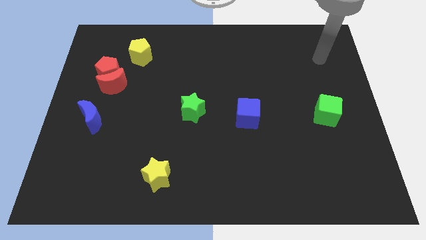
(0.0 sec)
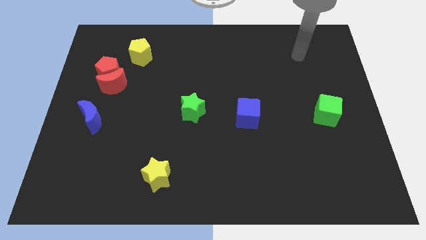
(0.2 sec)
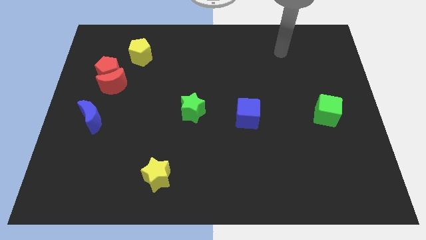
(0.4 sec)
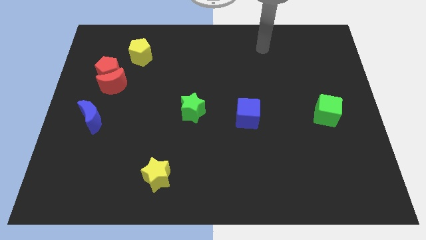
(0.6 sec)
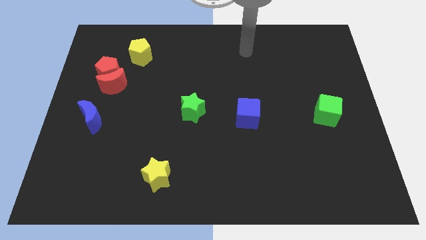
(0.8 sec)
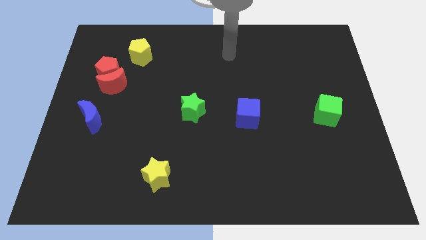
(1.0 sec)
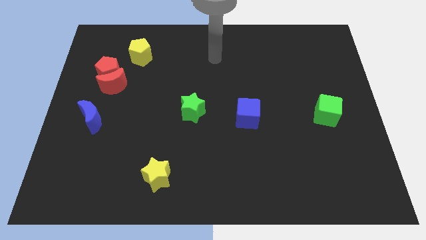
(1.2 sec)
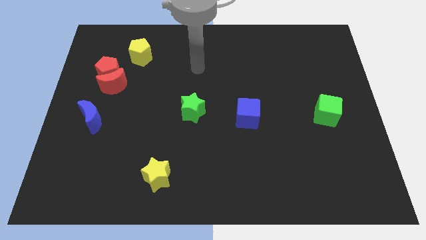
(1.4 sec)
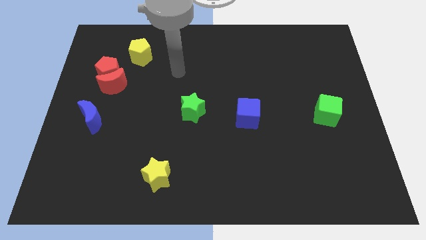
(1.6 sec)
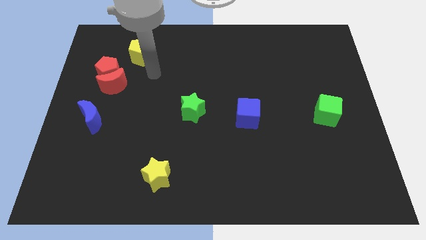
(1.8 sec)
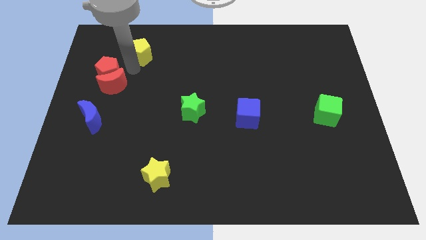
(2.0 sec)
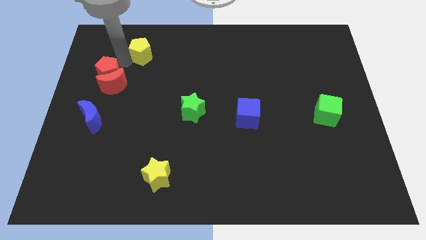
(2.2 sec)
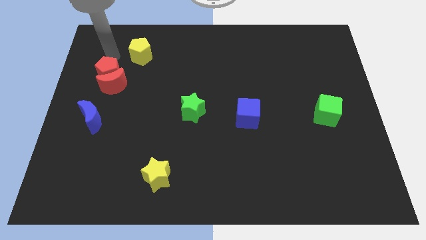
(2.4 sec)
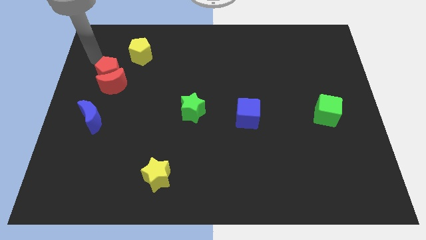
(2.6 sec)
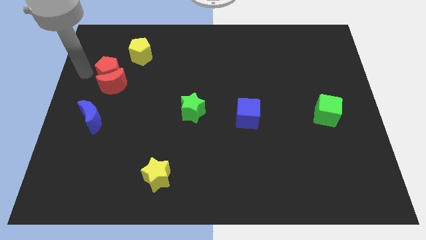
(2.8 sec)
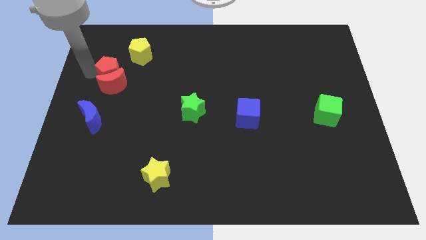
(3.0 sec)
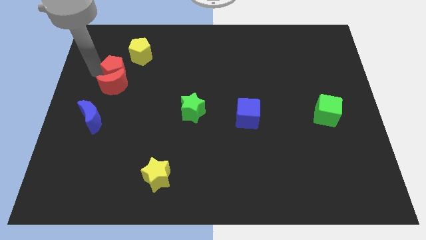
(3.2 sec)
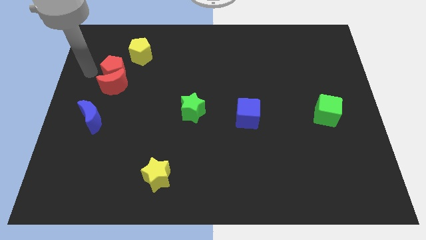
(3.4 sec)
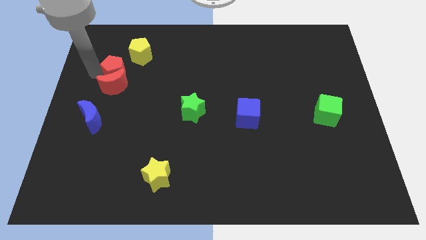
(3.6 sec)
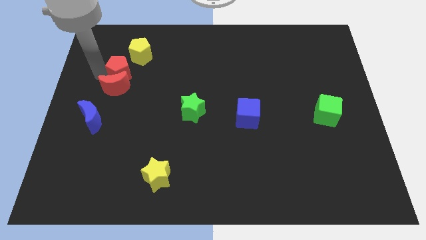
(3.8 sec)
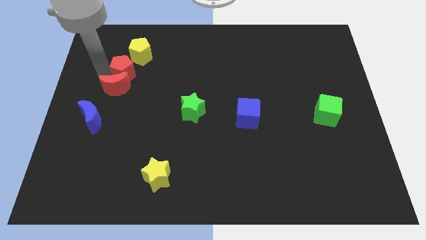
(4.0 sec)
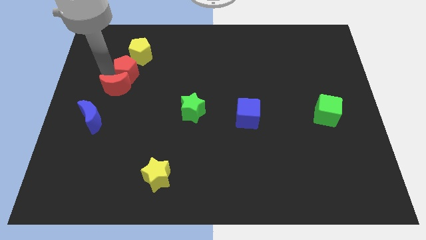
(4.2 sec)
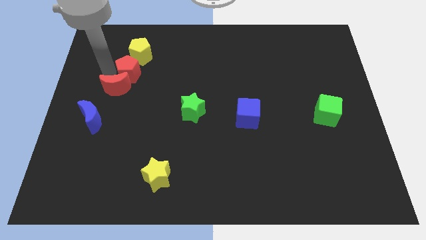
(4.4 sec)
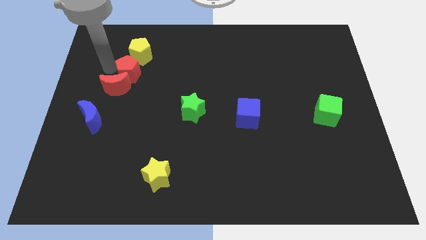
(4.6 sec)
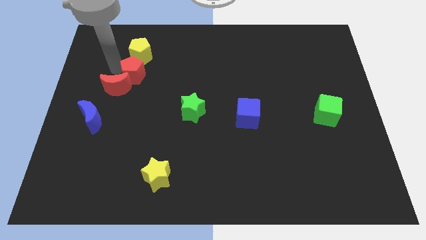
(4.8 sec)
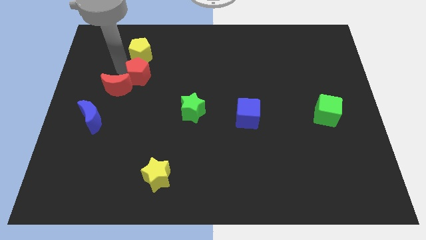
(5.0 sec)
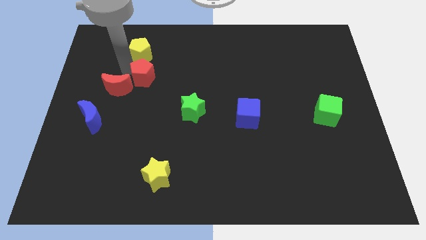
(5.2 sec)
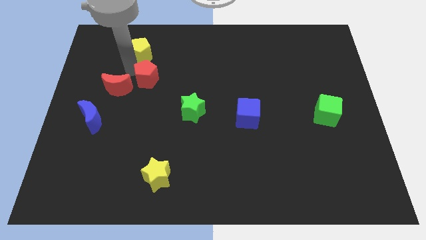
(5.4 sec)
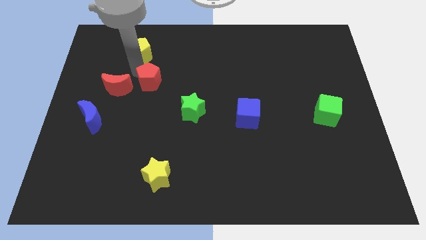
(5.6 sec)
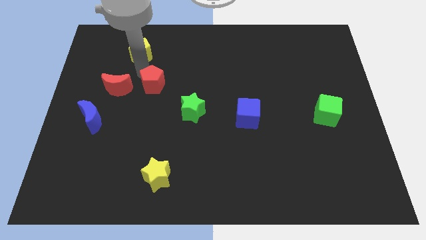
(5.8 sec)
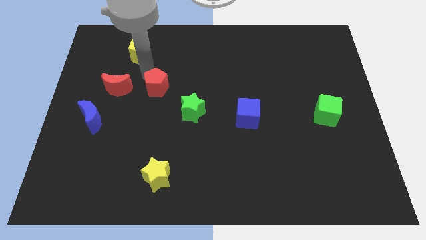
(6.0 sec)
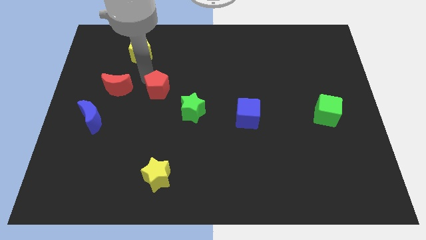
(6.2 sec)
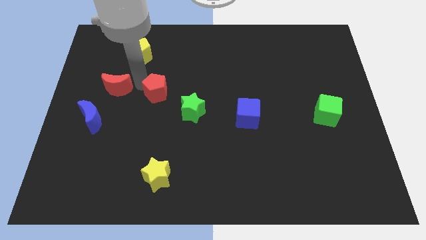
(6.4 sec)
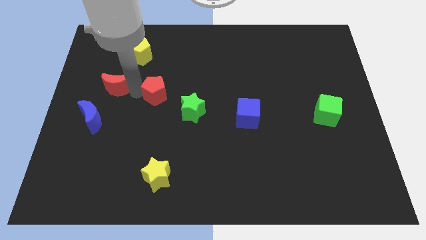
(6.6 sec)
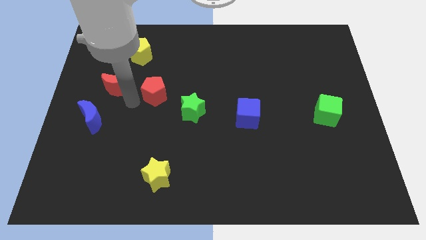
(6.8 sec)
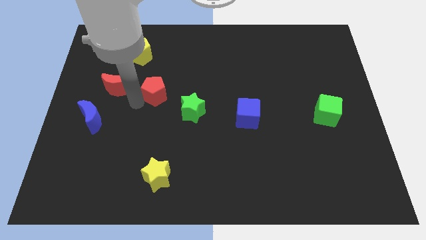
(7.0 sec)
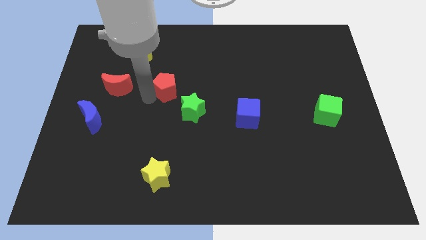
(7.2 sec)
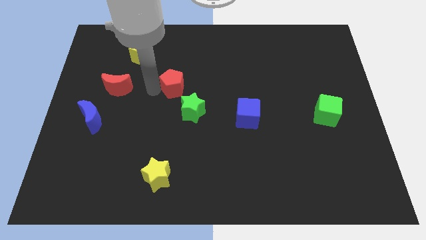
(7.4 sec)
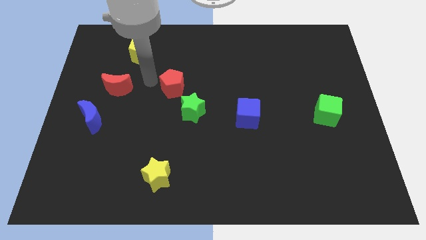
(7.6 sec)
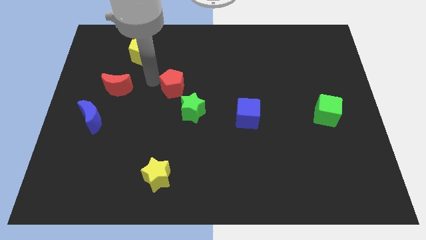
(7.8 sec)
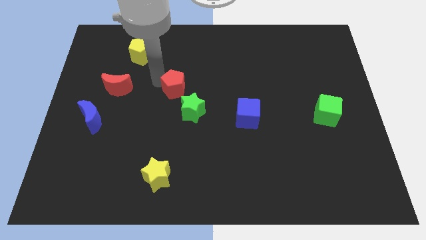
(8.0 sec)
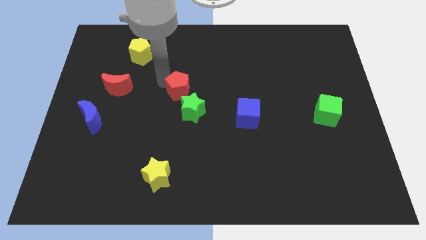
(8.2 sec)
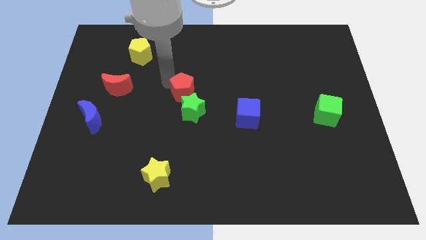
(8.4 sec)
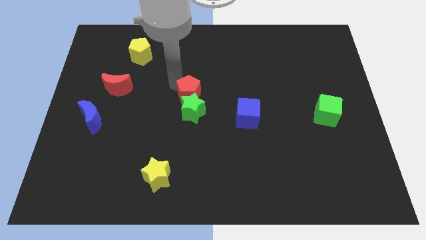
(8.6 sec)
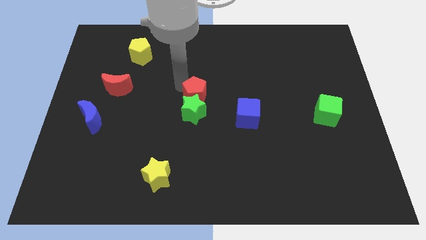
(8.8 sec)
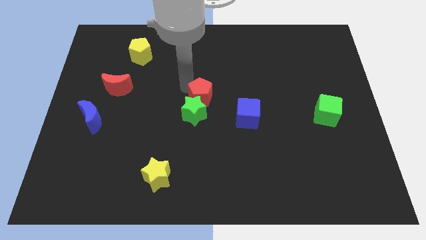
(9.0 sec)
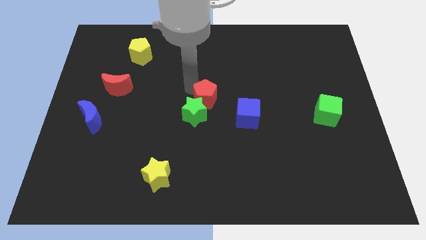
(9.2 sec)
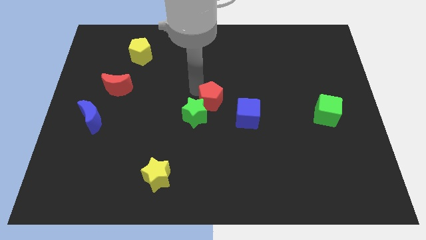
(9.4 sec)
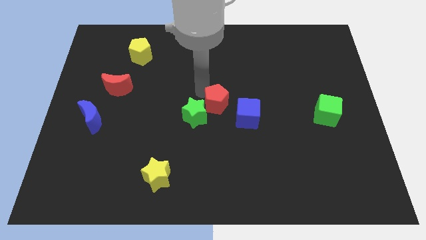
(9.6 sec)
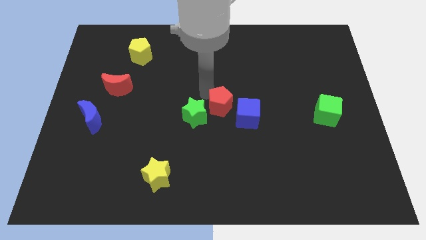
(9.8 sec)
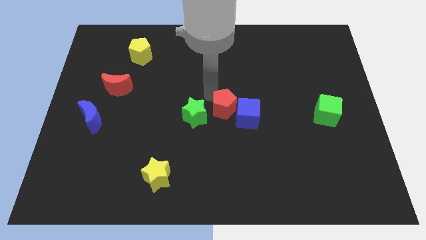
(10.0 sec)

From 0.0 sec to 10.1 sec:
put the red pentagon next to the blue cube

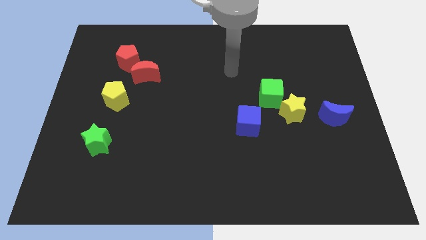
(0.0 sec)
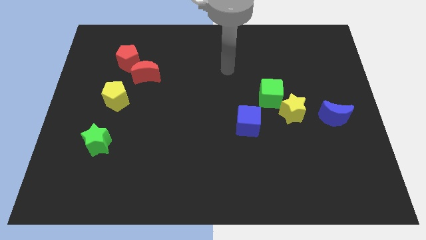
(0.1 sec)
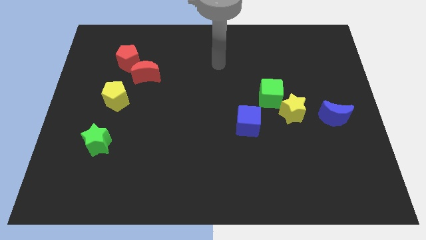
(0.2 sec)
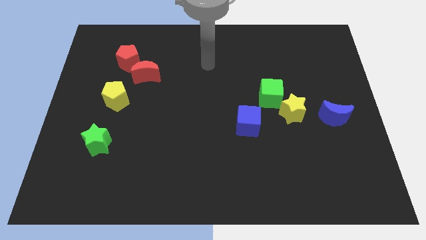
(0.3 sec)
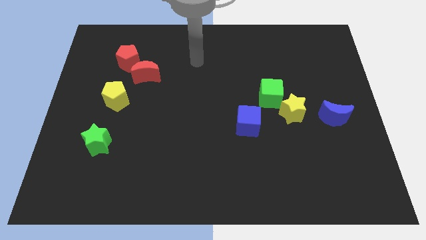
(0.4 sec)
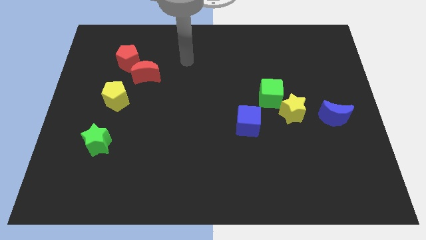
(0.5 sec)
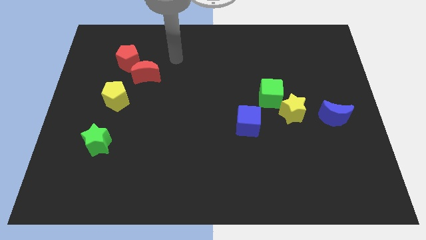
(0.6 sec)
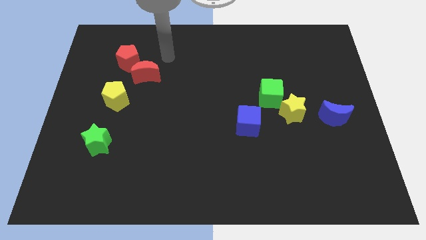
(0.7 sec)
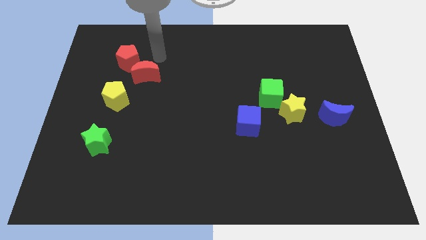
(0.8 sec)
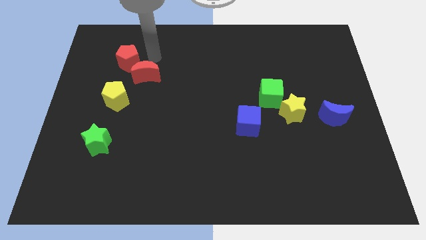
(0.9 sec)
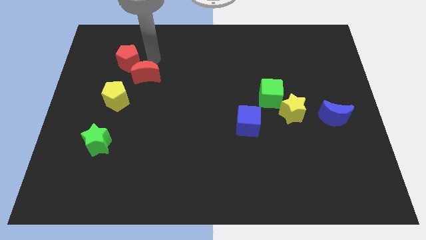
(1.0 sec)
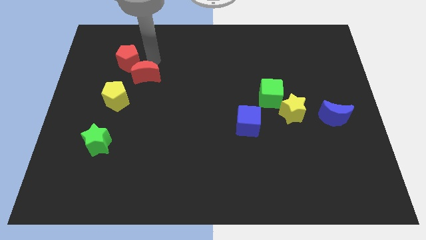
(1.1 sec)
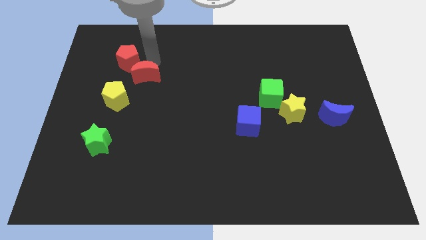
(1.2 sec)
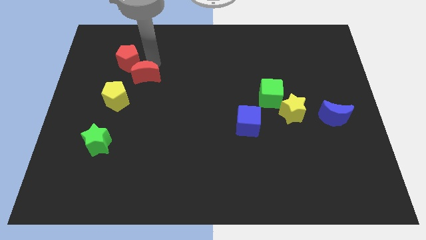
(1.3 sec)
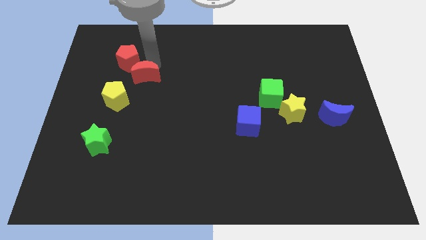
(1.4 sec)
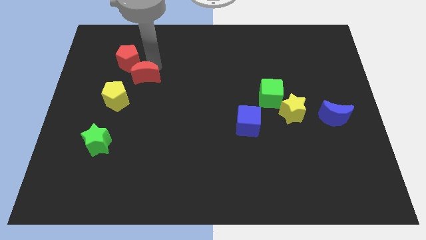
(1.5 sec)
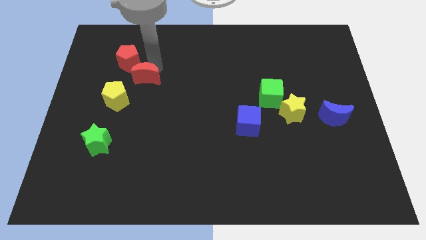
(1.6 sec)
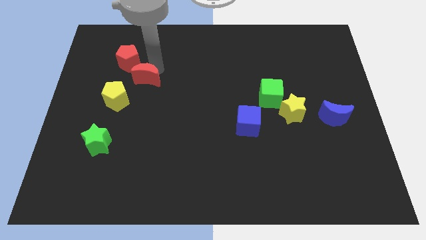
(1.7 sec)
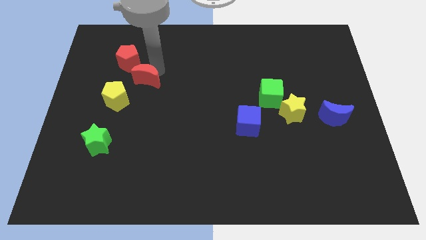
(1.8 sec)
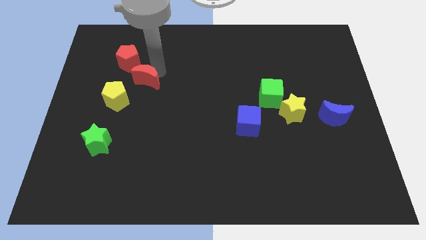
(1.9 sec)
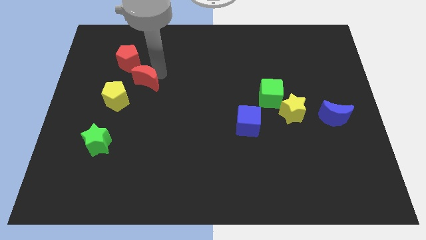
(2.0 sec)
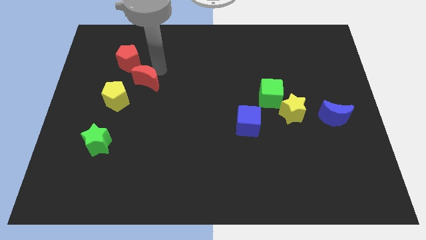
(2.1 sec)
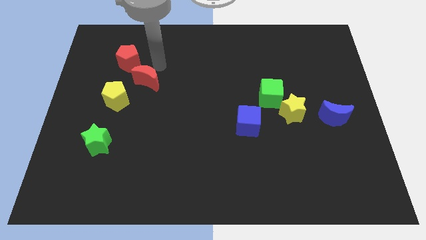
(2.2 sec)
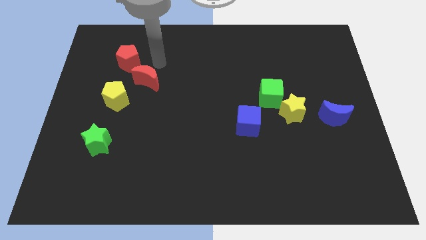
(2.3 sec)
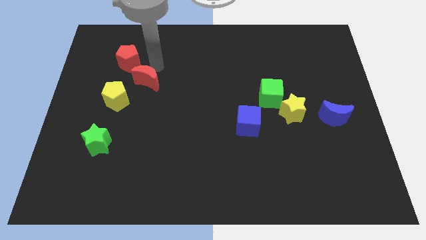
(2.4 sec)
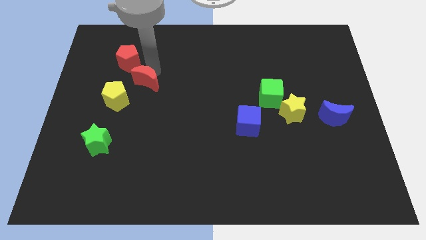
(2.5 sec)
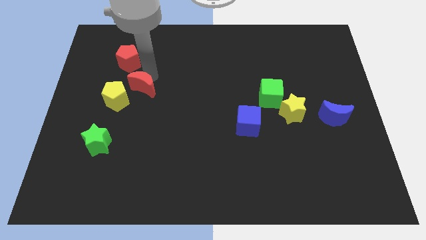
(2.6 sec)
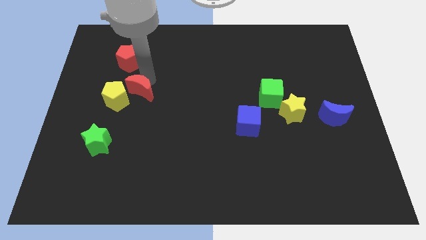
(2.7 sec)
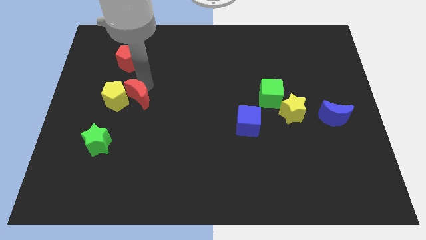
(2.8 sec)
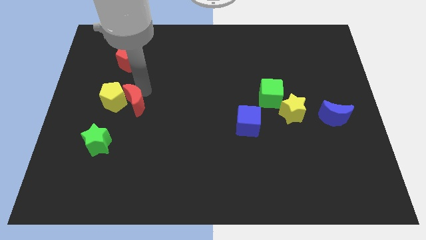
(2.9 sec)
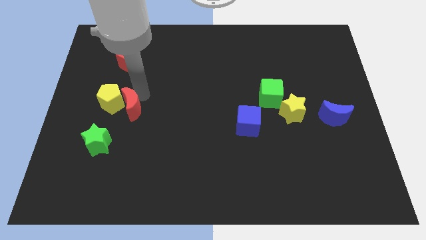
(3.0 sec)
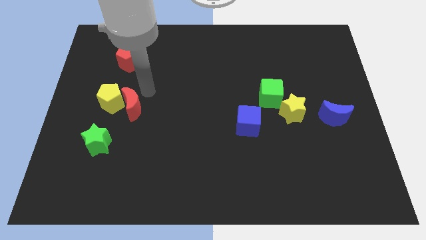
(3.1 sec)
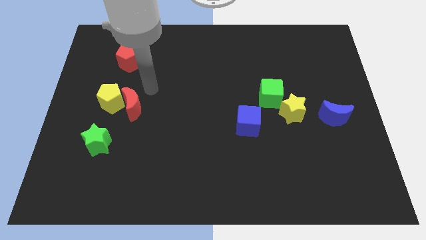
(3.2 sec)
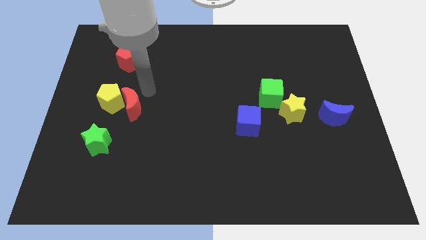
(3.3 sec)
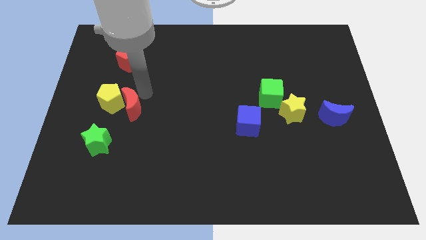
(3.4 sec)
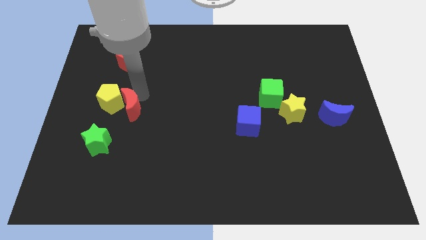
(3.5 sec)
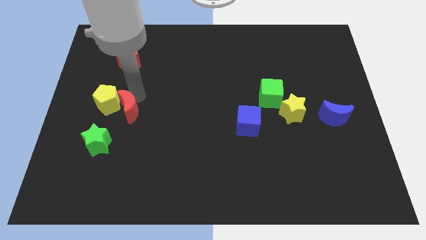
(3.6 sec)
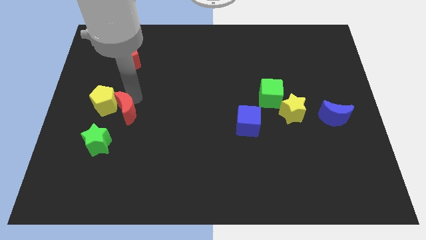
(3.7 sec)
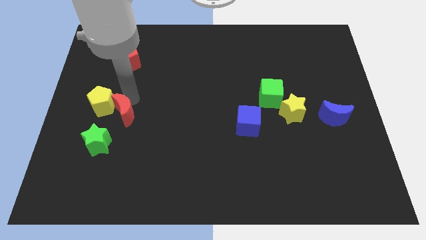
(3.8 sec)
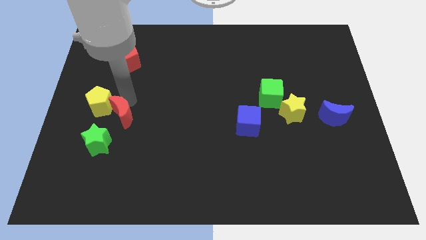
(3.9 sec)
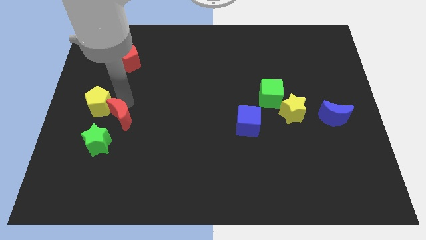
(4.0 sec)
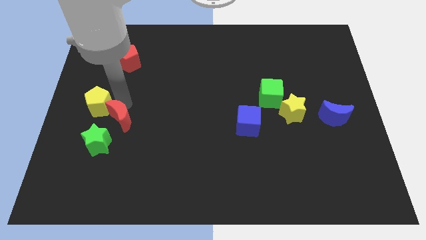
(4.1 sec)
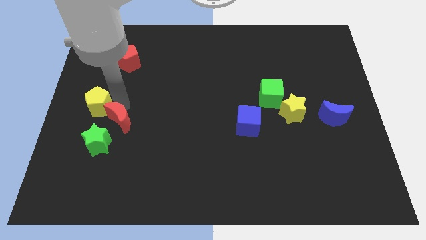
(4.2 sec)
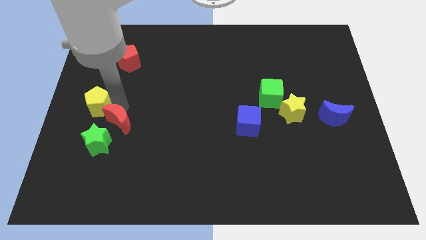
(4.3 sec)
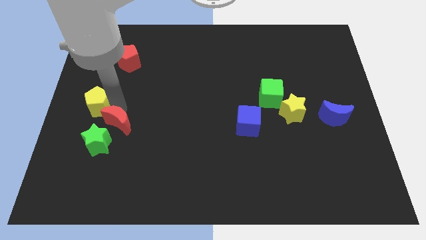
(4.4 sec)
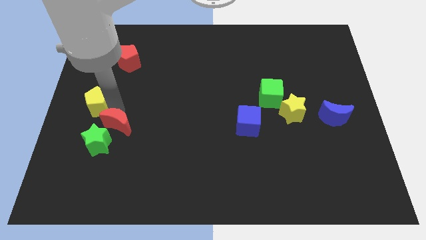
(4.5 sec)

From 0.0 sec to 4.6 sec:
put the red moon towards the green star
